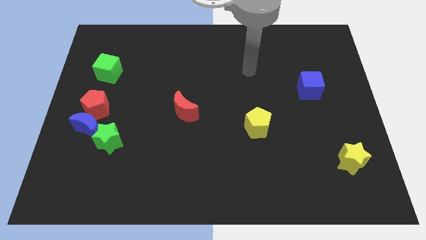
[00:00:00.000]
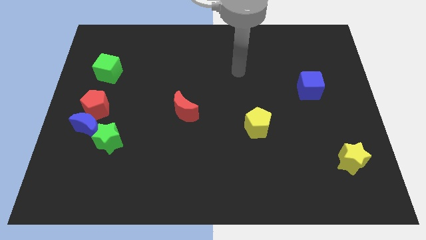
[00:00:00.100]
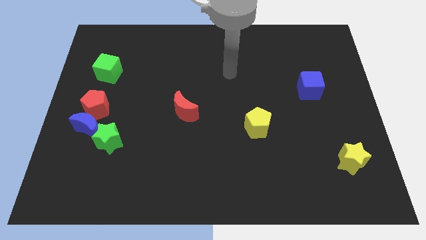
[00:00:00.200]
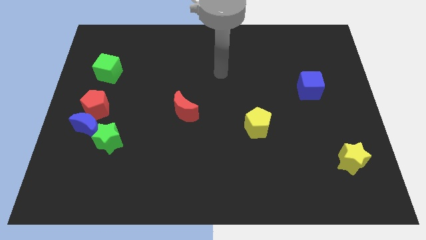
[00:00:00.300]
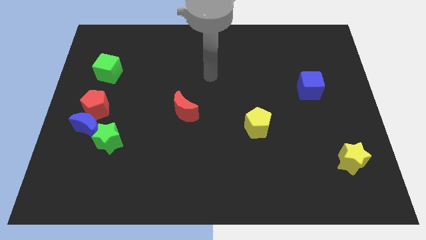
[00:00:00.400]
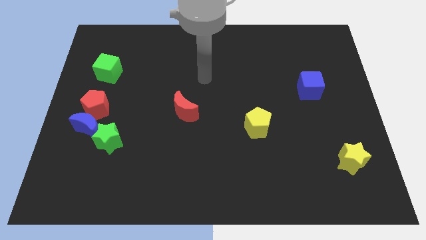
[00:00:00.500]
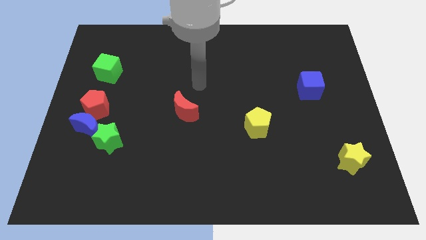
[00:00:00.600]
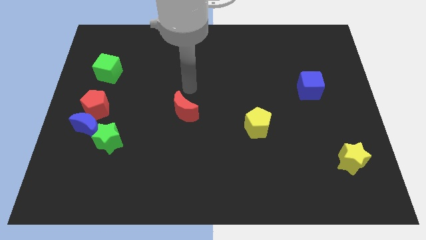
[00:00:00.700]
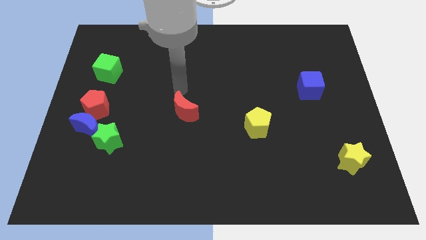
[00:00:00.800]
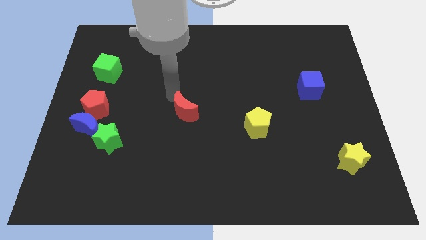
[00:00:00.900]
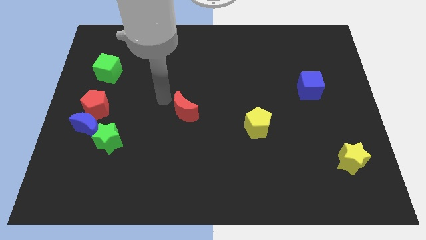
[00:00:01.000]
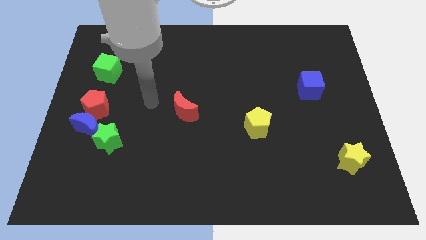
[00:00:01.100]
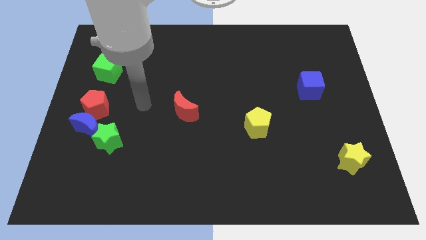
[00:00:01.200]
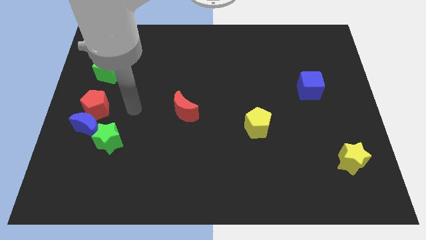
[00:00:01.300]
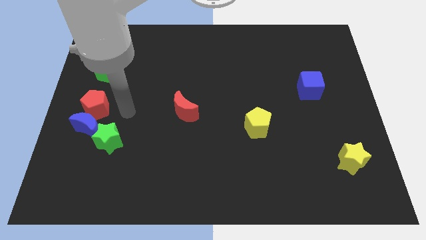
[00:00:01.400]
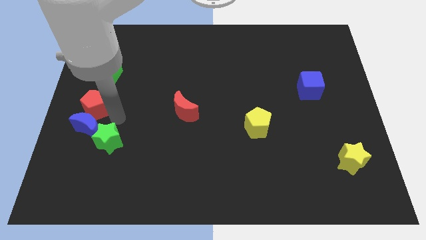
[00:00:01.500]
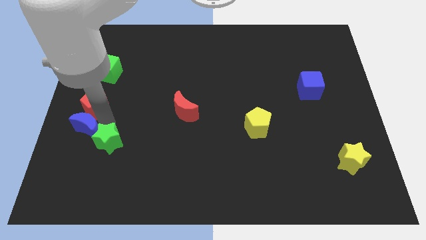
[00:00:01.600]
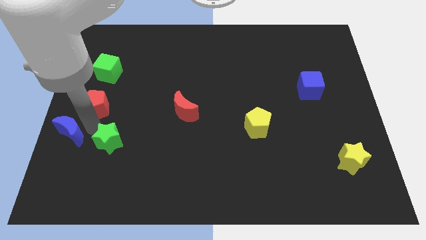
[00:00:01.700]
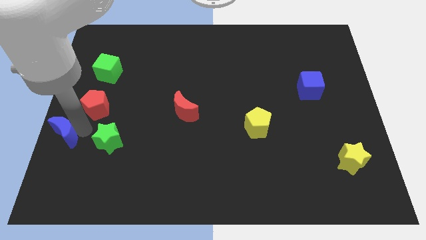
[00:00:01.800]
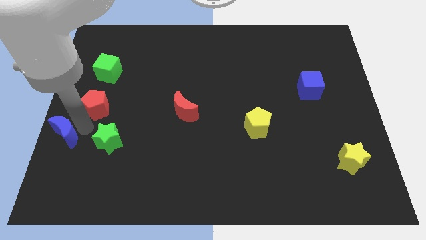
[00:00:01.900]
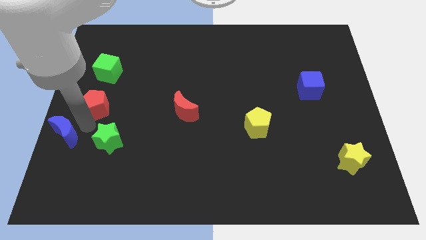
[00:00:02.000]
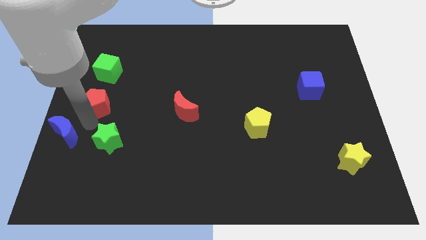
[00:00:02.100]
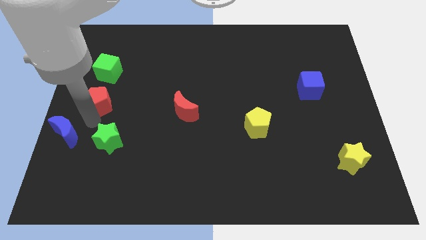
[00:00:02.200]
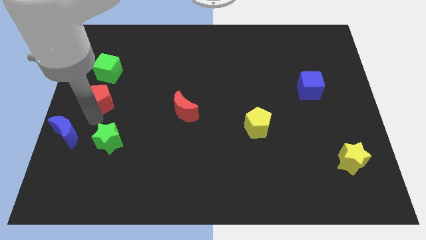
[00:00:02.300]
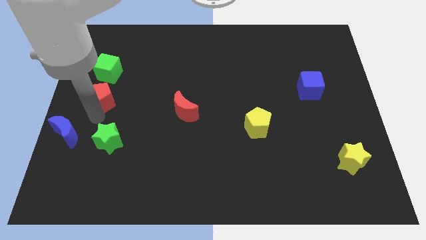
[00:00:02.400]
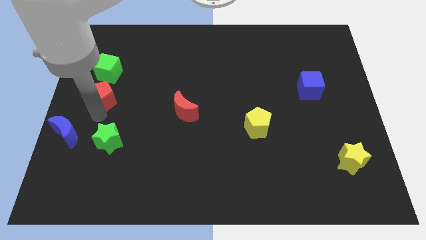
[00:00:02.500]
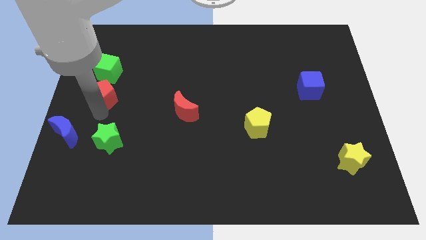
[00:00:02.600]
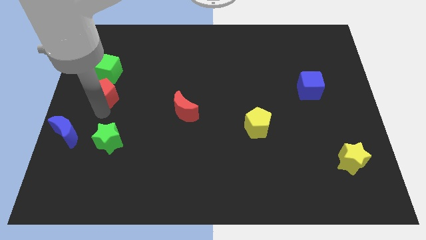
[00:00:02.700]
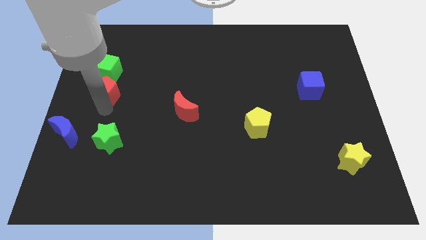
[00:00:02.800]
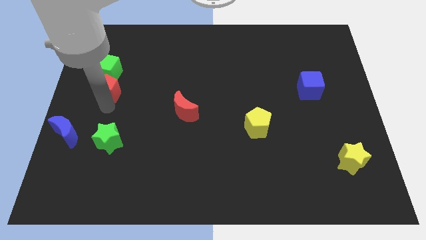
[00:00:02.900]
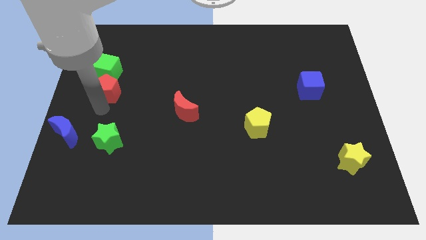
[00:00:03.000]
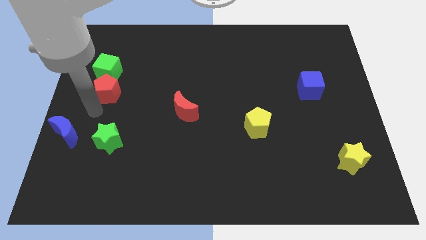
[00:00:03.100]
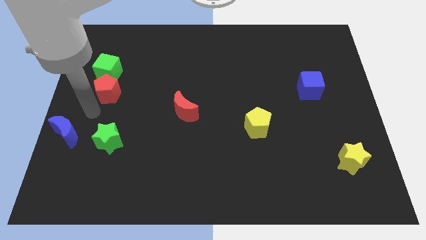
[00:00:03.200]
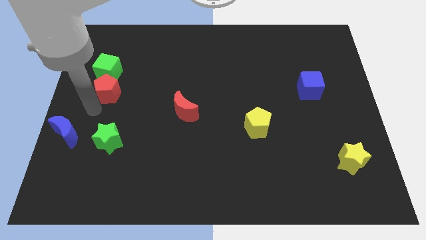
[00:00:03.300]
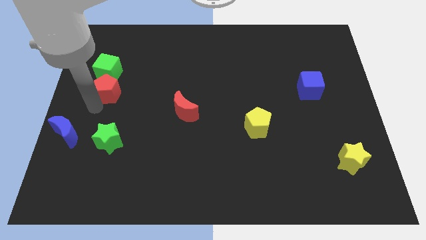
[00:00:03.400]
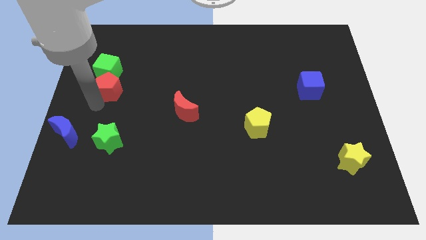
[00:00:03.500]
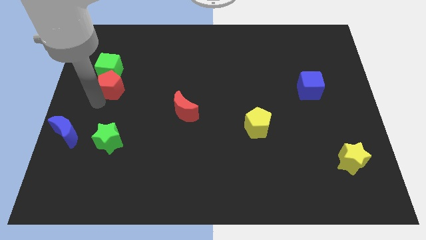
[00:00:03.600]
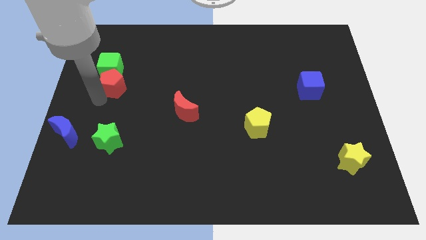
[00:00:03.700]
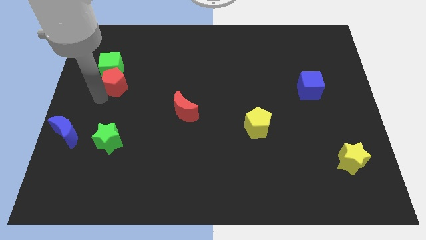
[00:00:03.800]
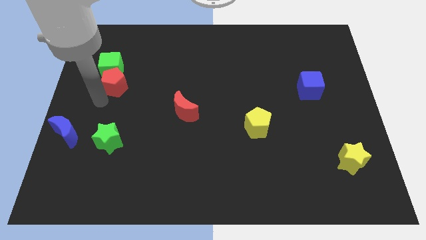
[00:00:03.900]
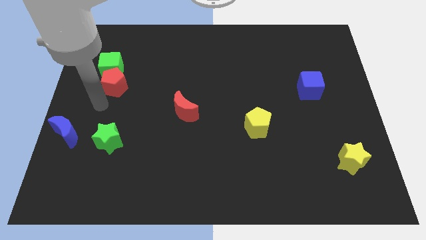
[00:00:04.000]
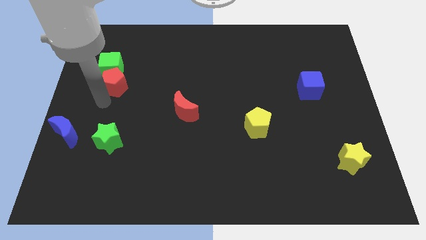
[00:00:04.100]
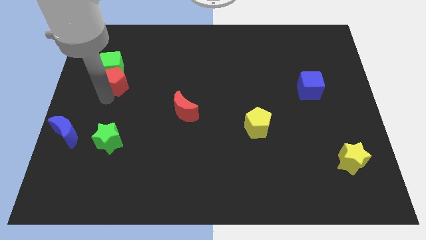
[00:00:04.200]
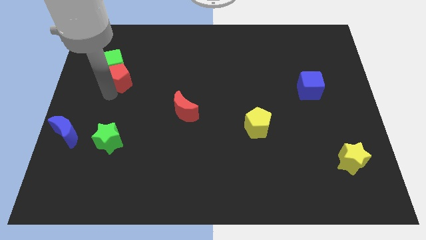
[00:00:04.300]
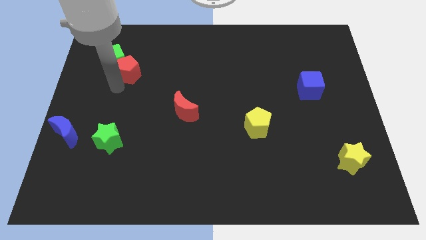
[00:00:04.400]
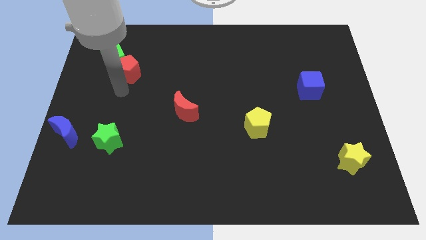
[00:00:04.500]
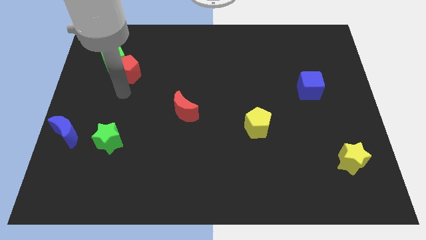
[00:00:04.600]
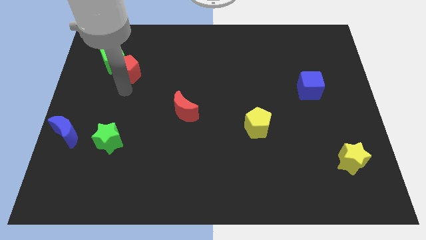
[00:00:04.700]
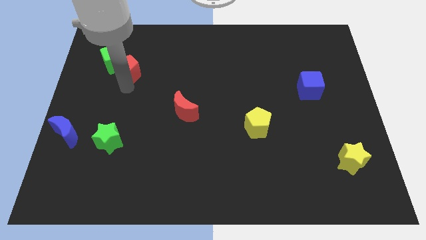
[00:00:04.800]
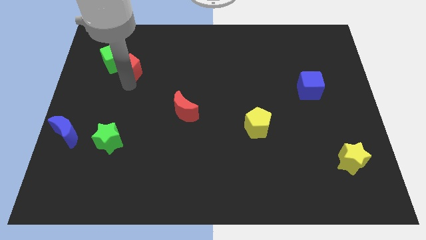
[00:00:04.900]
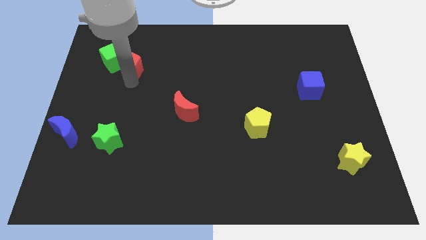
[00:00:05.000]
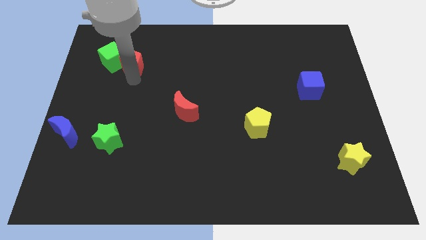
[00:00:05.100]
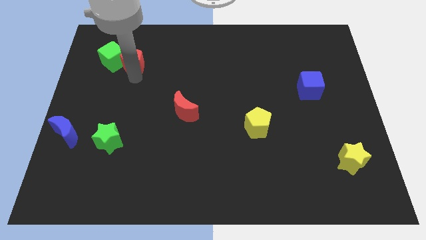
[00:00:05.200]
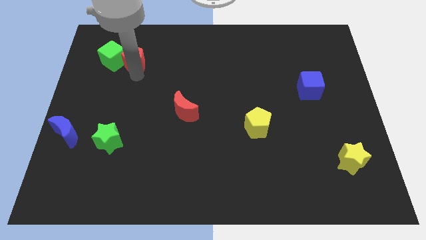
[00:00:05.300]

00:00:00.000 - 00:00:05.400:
move the red pentagon to the top right side of the green cube

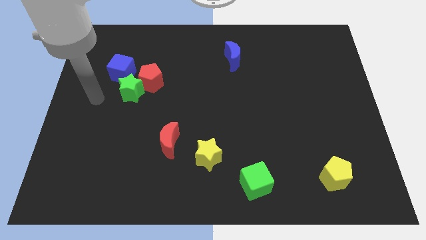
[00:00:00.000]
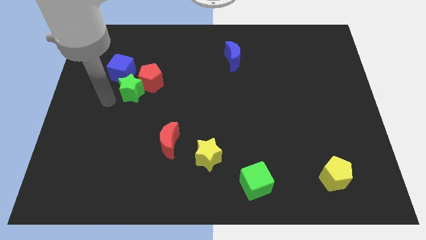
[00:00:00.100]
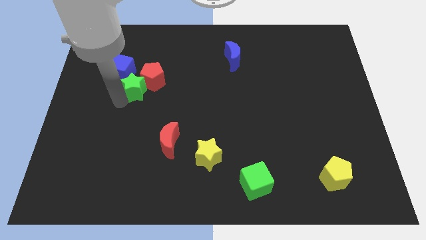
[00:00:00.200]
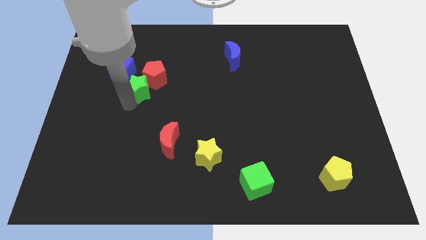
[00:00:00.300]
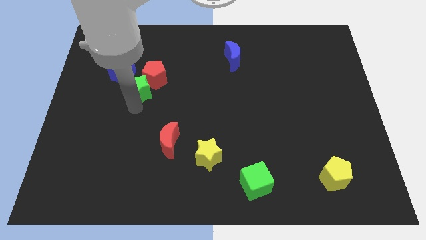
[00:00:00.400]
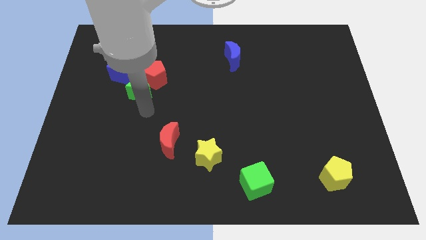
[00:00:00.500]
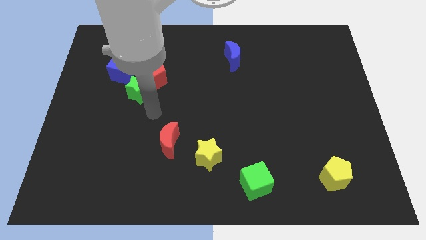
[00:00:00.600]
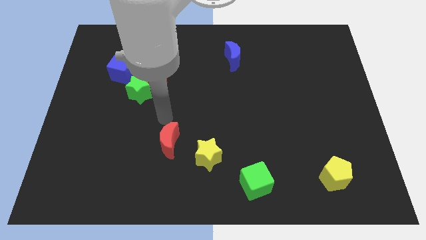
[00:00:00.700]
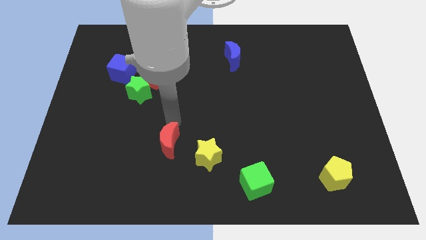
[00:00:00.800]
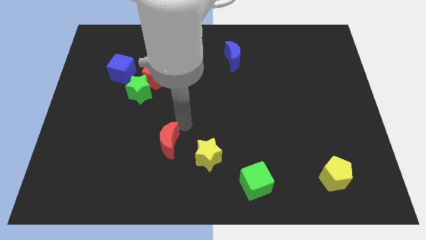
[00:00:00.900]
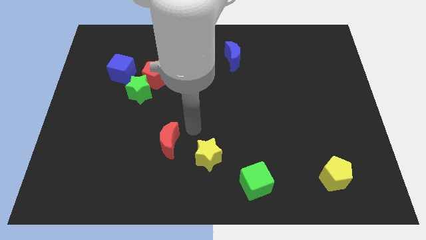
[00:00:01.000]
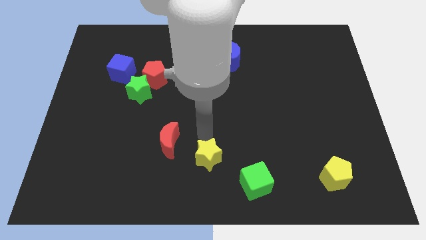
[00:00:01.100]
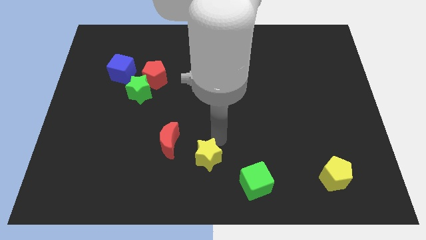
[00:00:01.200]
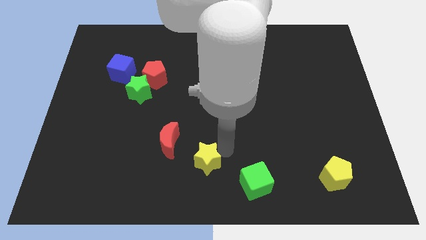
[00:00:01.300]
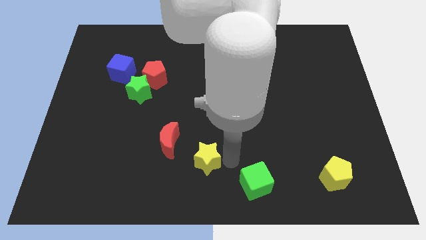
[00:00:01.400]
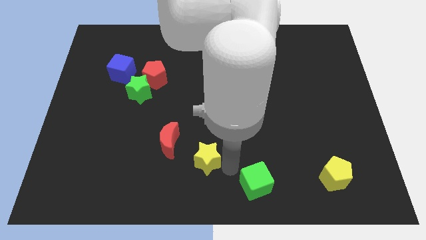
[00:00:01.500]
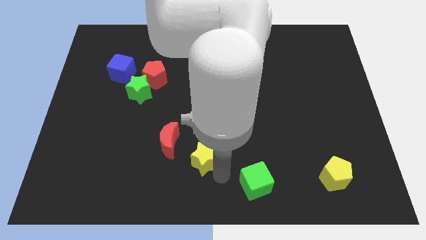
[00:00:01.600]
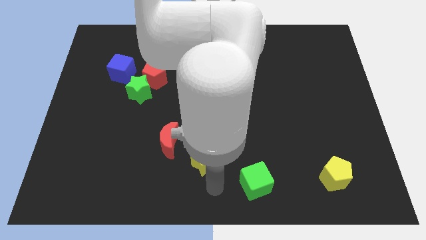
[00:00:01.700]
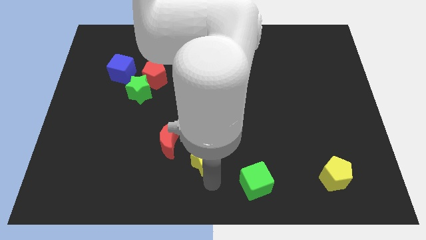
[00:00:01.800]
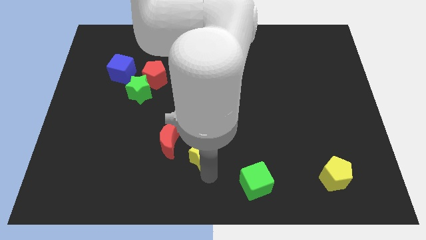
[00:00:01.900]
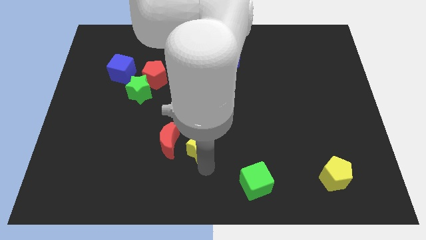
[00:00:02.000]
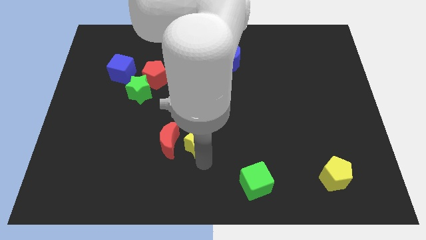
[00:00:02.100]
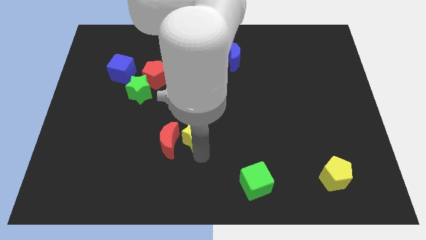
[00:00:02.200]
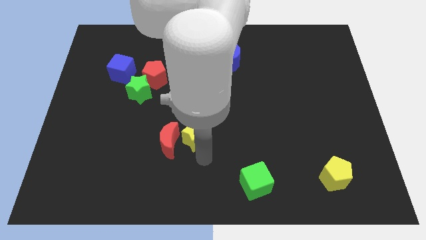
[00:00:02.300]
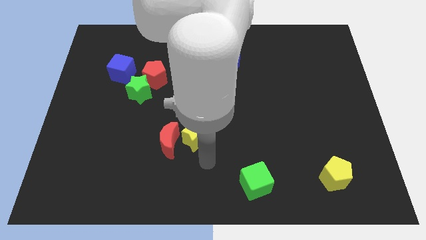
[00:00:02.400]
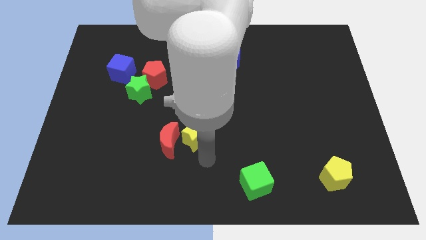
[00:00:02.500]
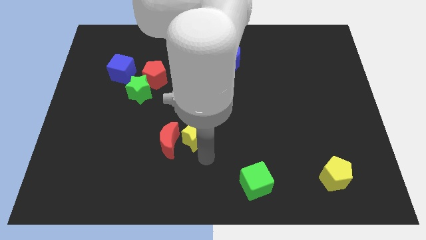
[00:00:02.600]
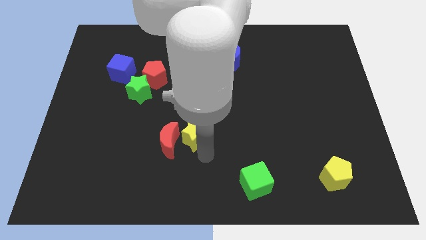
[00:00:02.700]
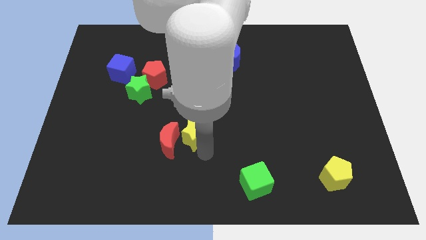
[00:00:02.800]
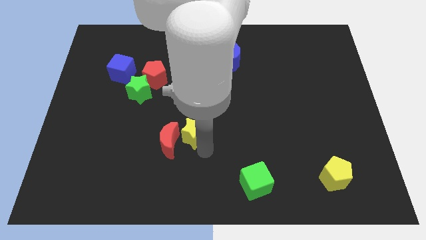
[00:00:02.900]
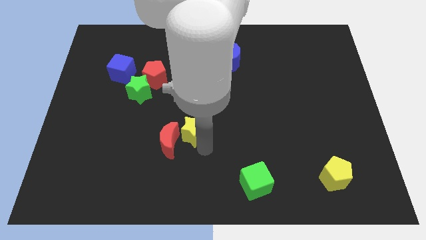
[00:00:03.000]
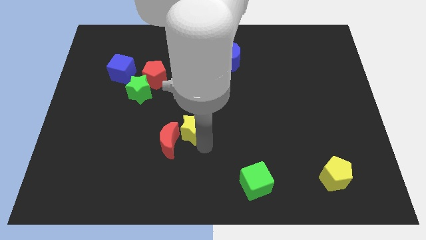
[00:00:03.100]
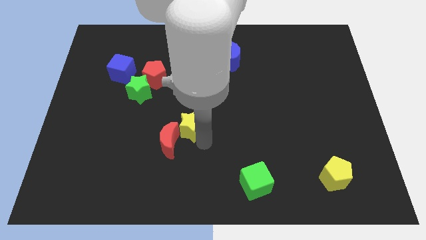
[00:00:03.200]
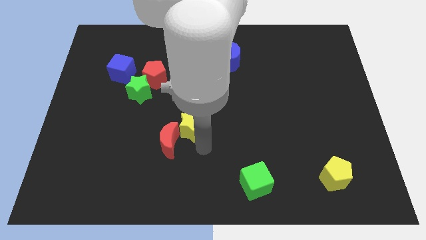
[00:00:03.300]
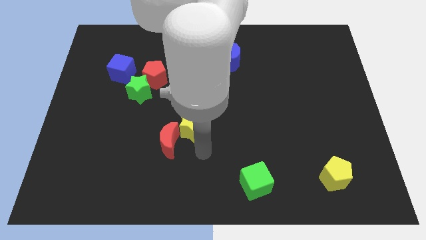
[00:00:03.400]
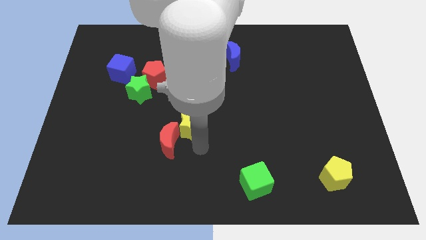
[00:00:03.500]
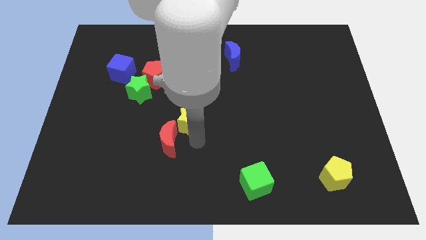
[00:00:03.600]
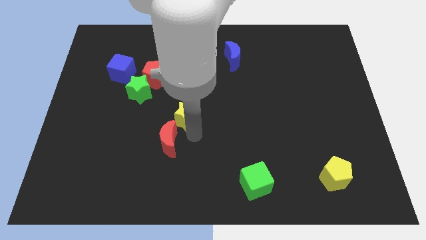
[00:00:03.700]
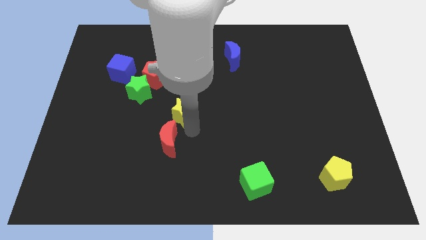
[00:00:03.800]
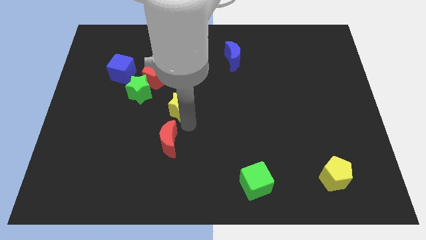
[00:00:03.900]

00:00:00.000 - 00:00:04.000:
slide the yellow star to the bottom right of the red pentagon
